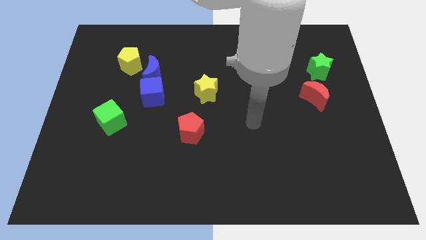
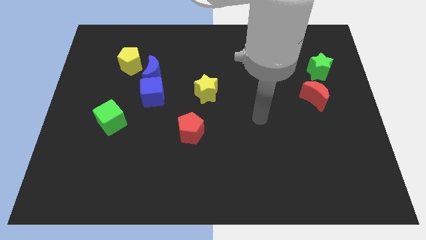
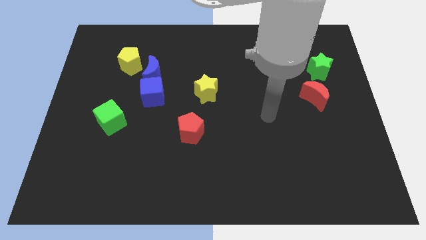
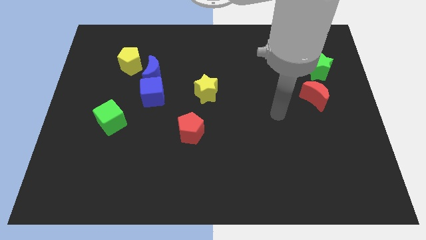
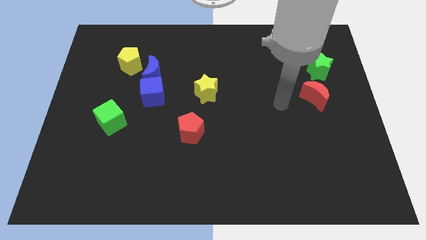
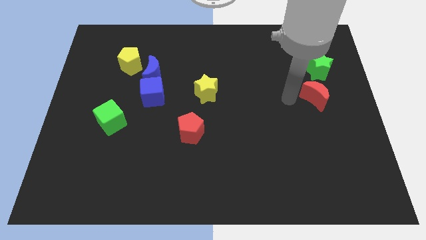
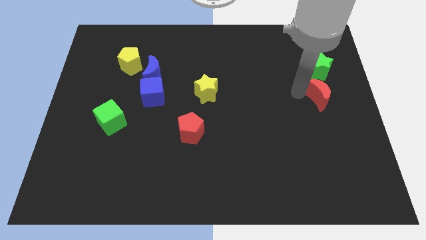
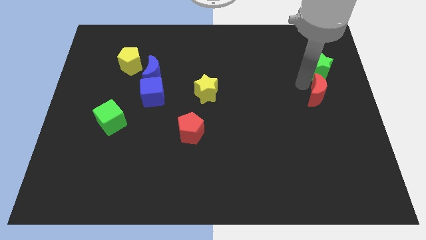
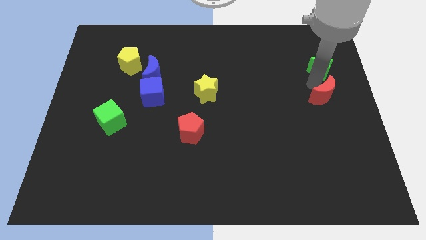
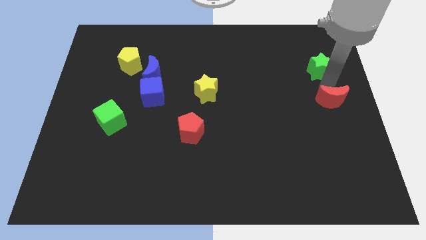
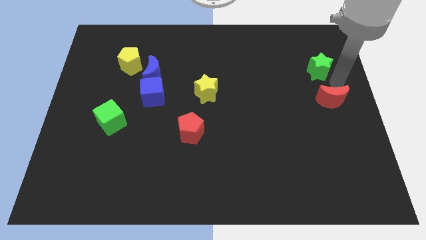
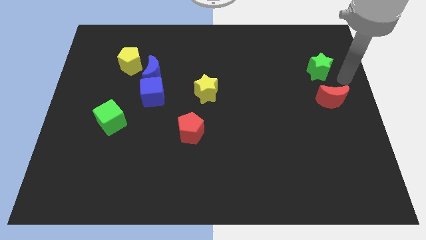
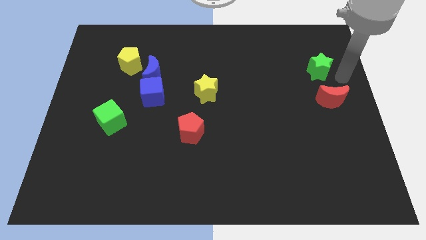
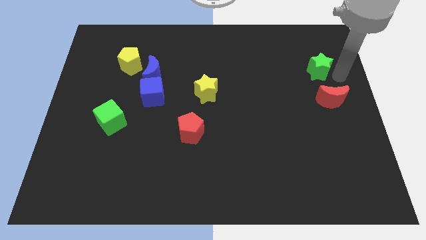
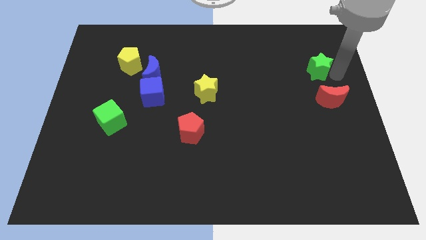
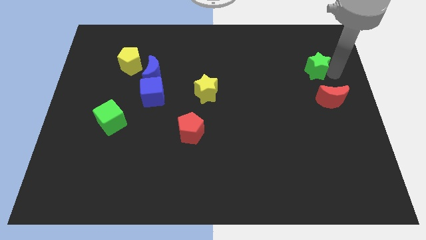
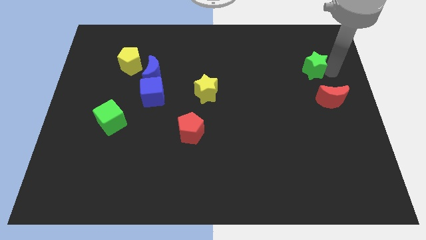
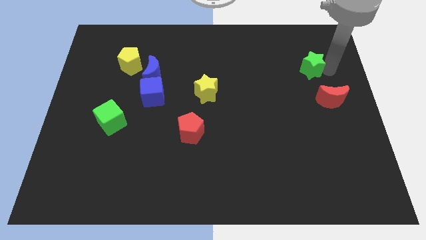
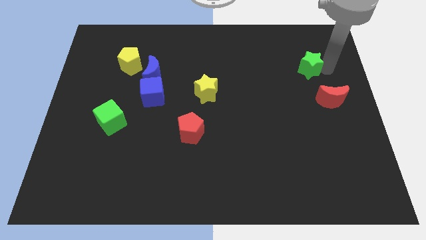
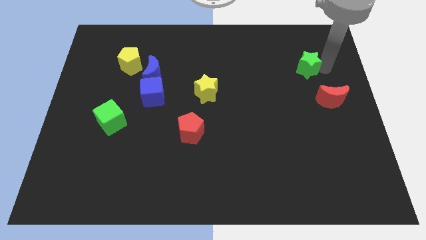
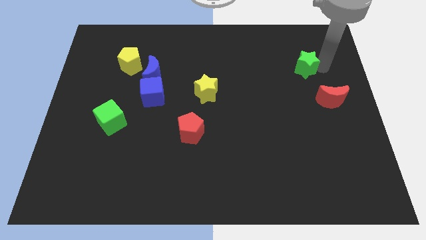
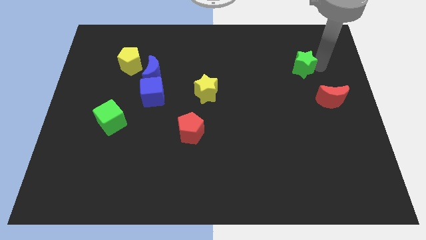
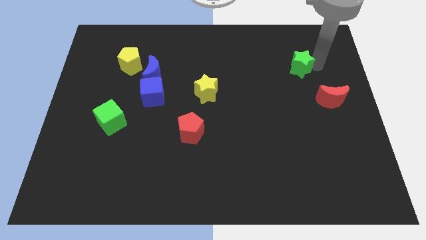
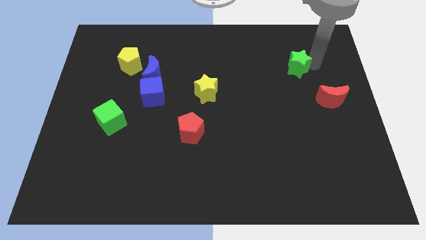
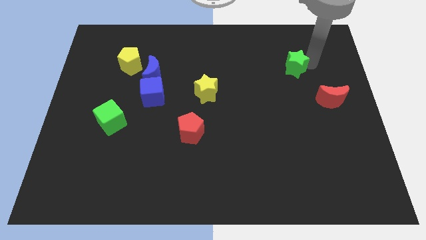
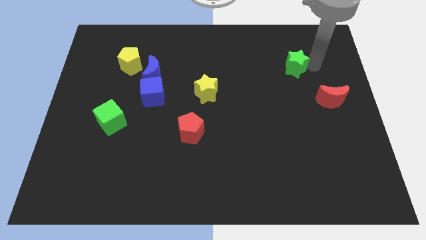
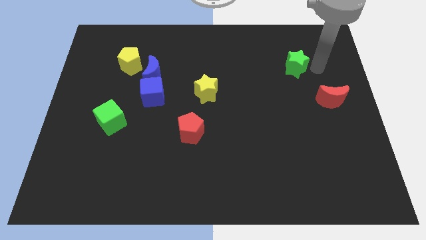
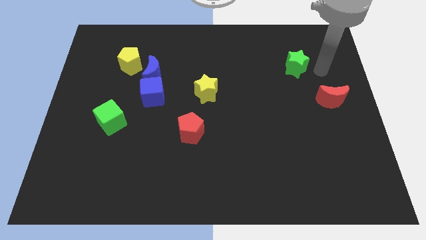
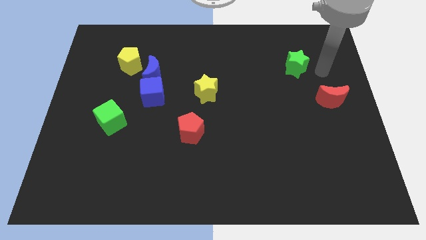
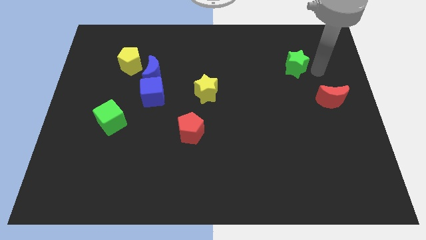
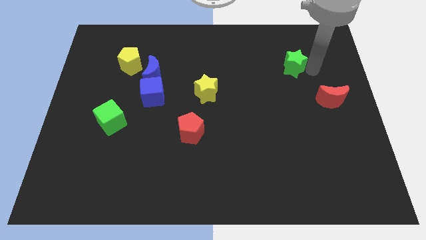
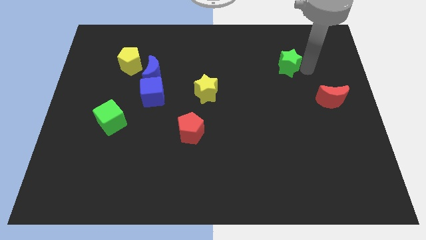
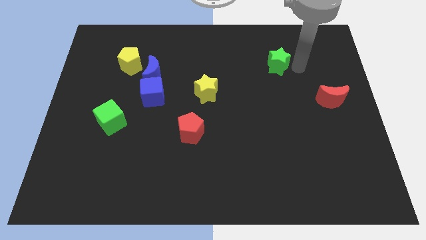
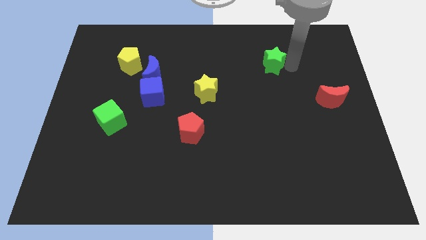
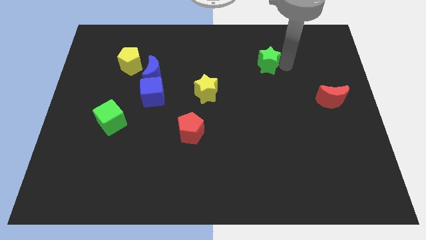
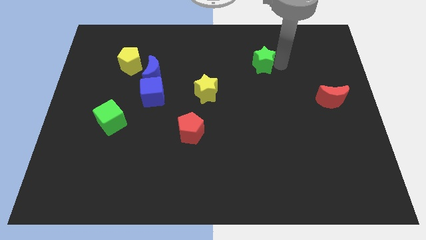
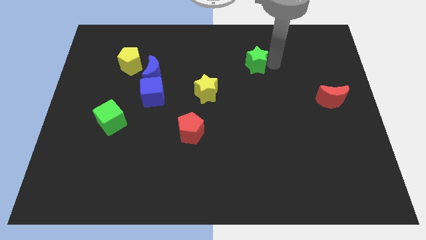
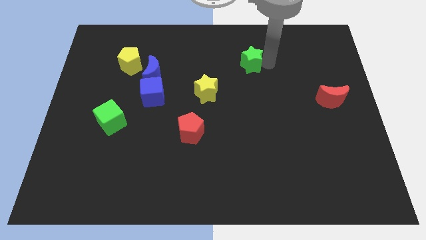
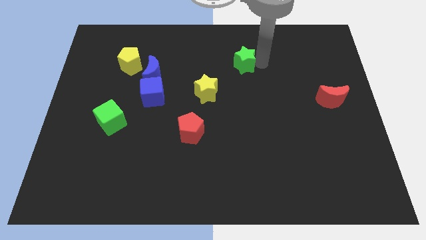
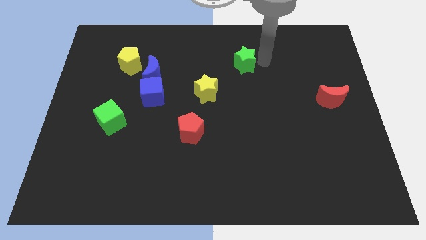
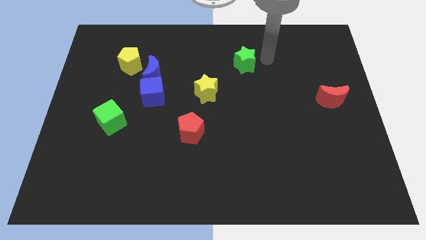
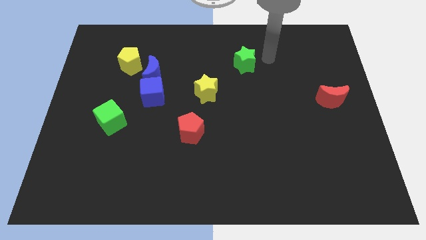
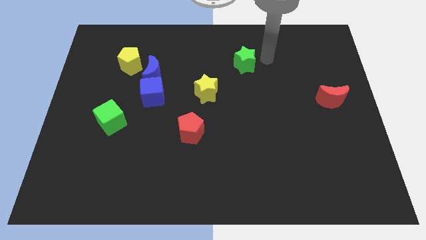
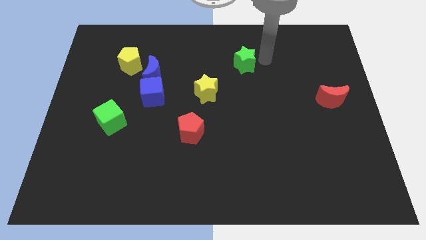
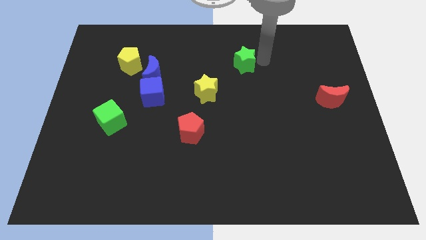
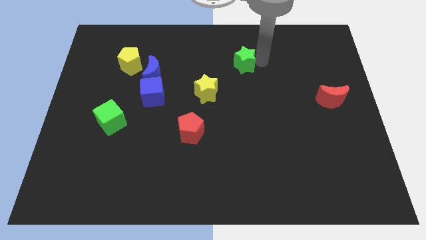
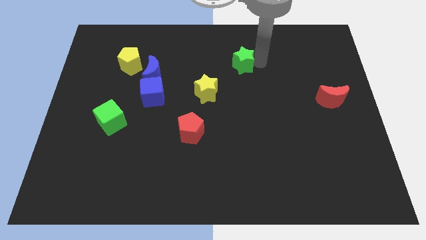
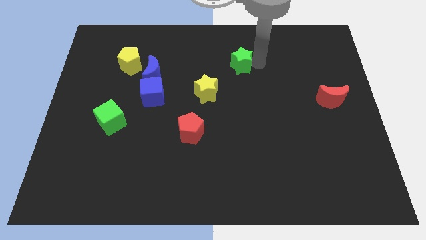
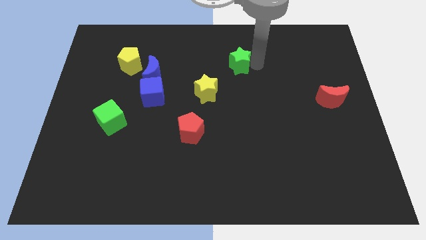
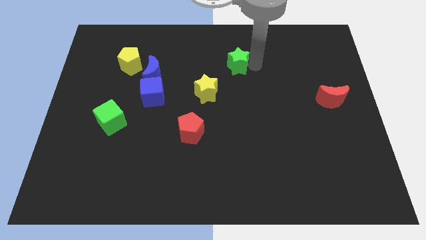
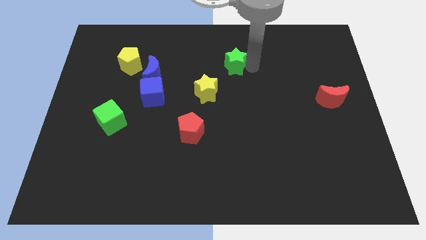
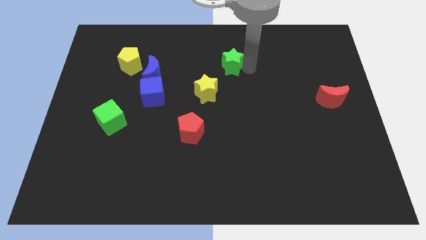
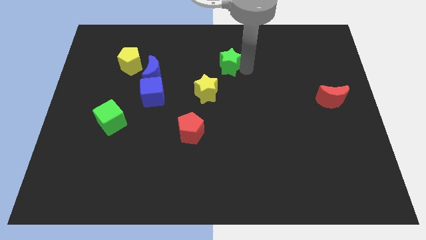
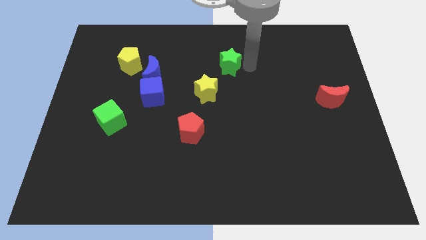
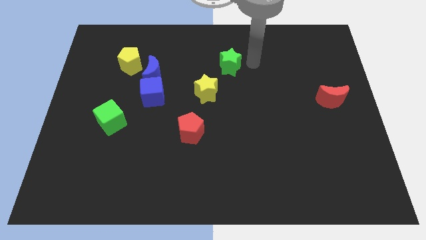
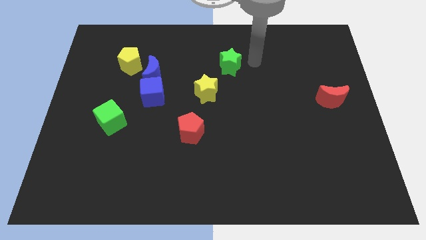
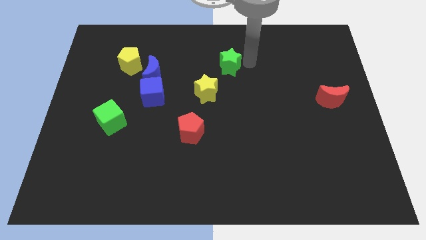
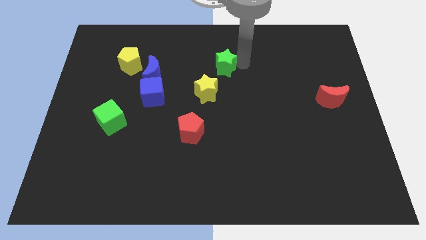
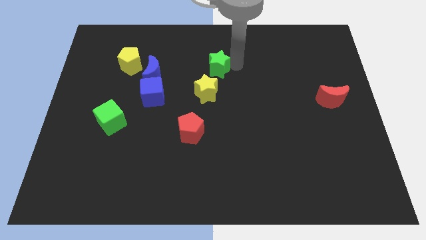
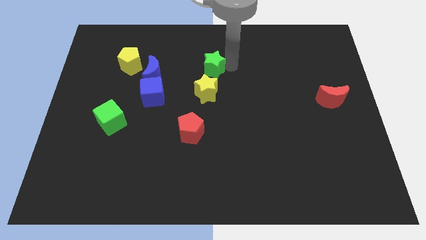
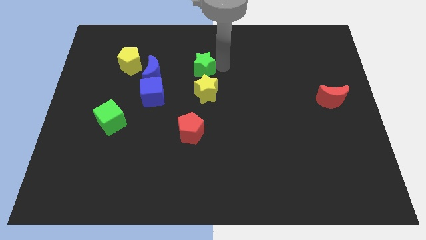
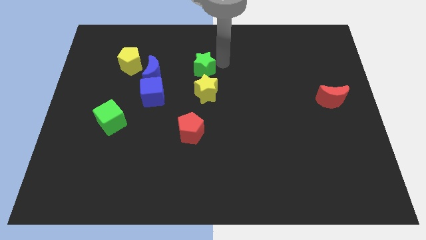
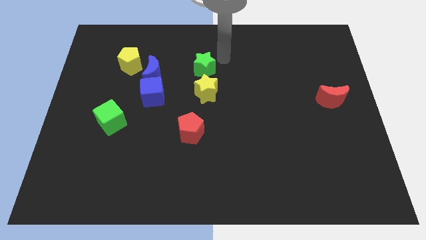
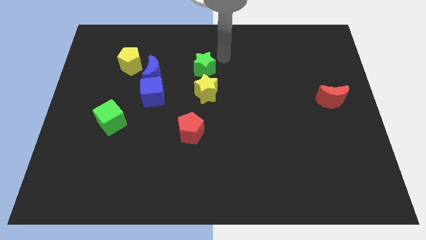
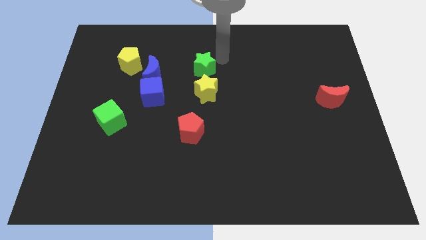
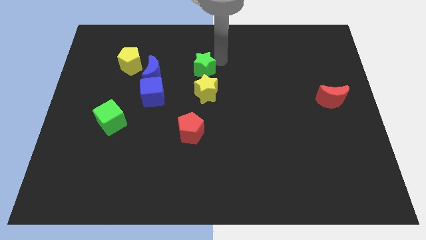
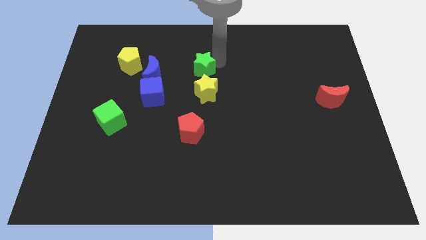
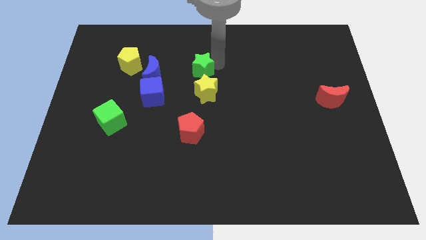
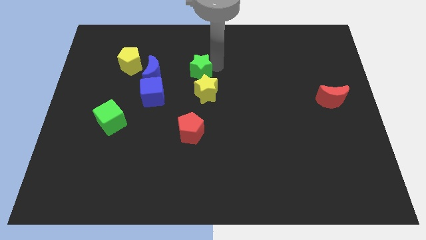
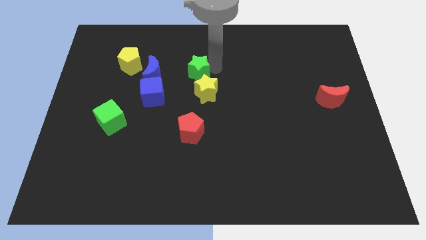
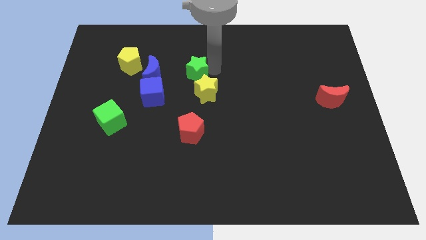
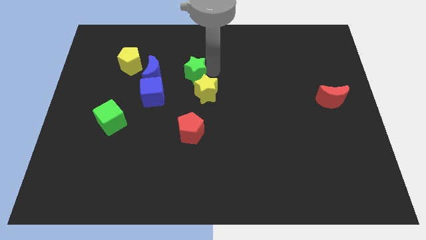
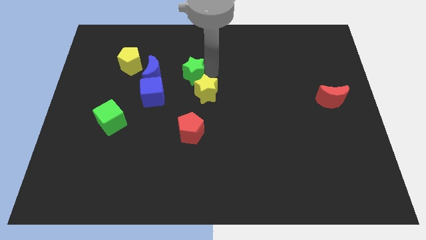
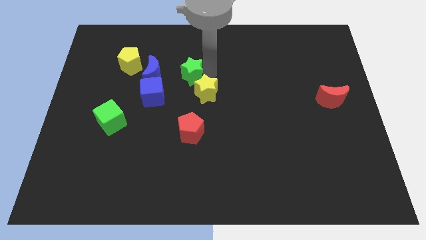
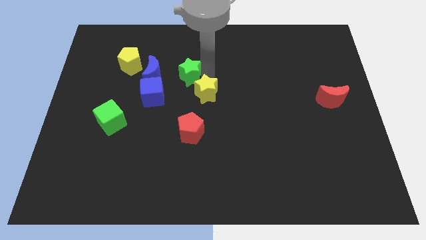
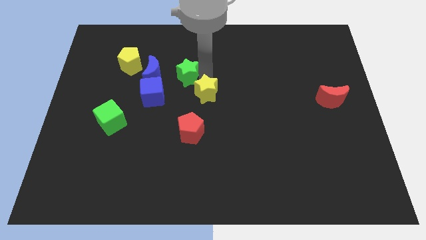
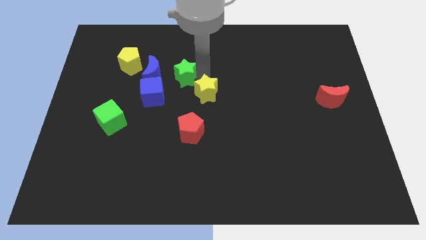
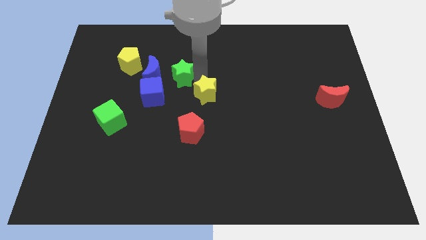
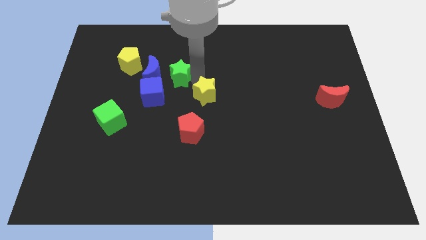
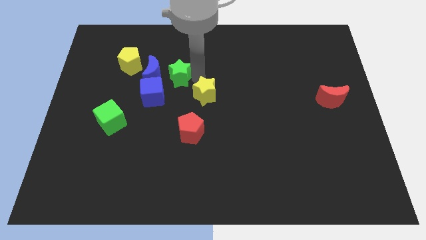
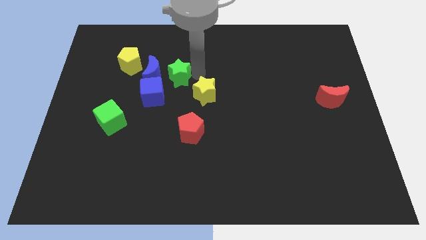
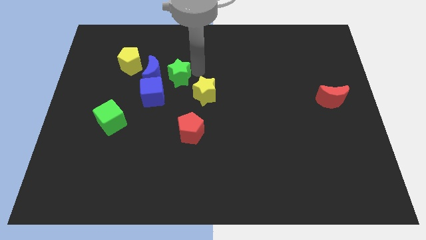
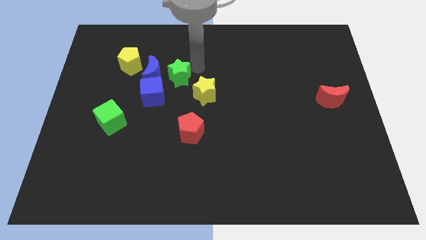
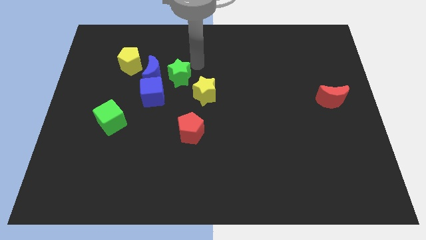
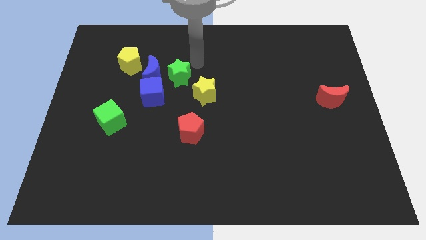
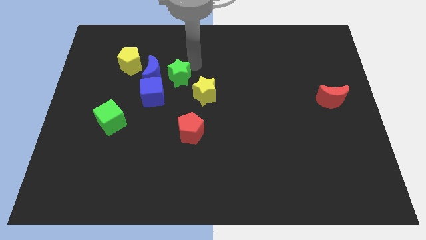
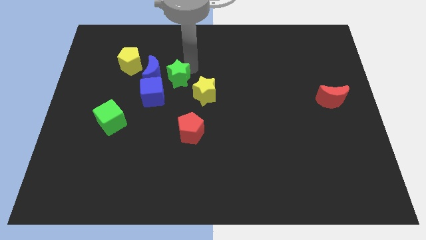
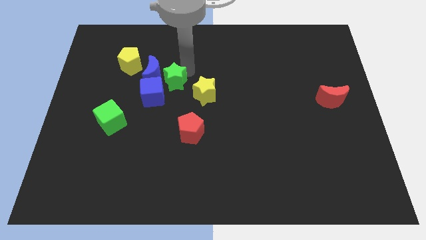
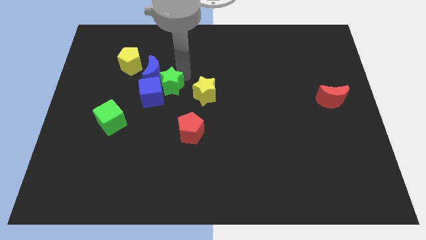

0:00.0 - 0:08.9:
push the green star next to the blue cube
